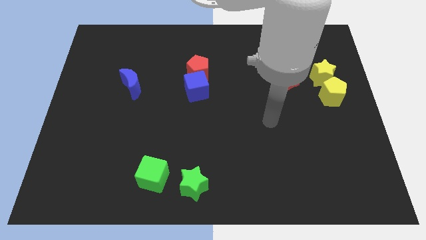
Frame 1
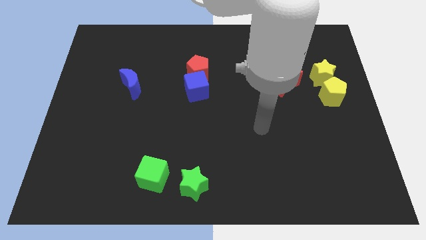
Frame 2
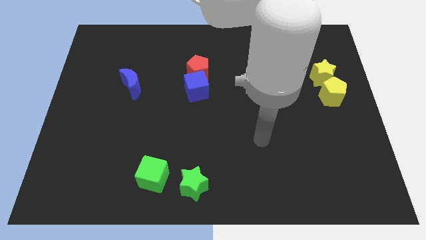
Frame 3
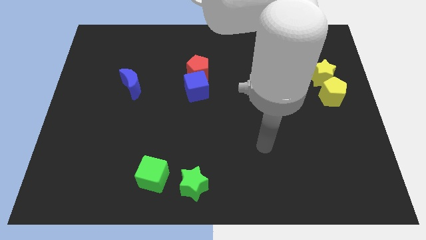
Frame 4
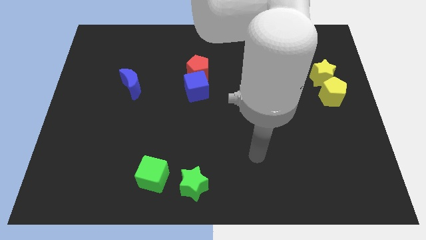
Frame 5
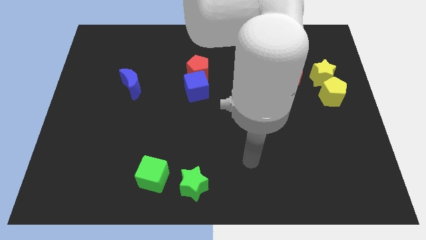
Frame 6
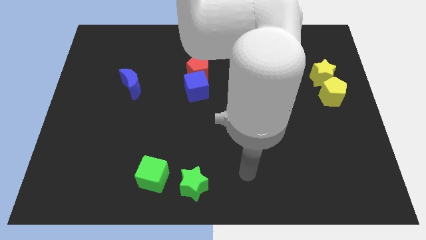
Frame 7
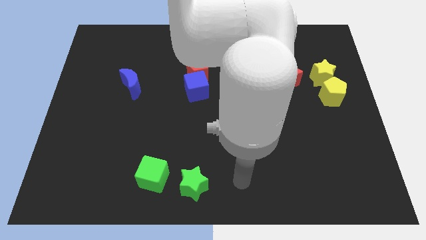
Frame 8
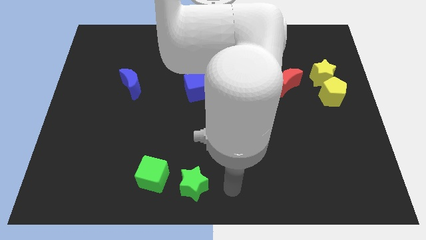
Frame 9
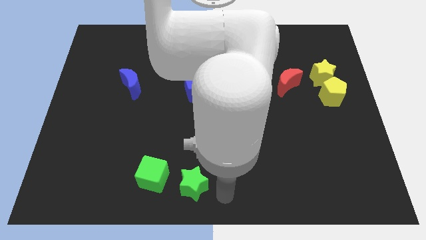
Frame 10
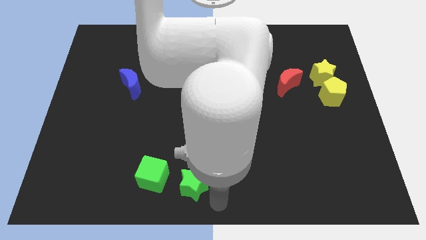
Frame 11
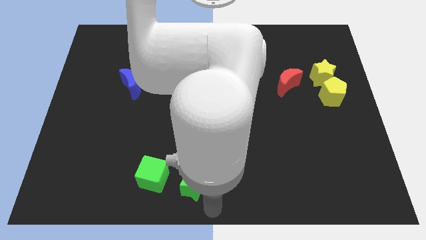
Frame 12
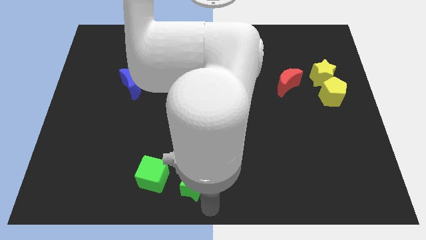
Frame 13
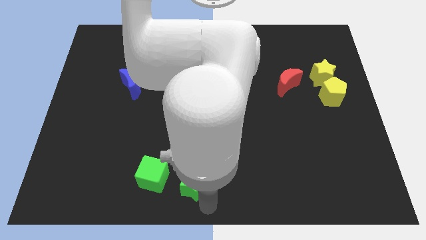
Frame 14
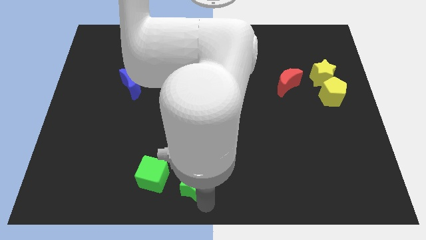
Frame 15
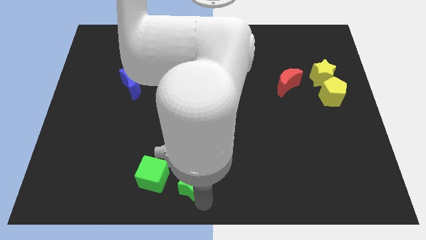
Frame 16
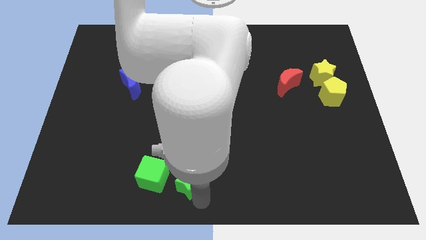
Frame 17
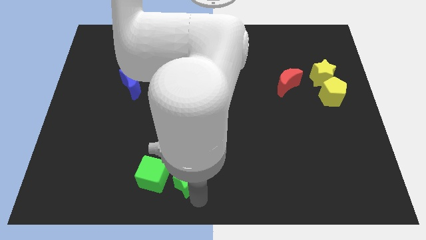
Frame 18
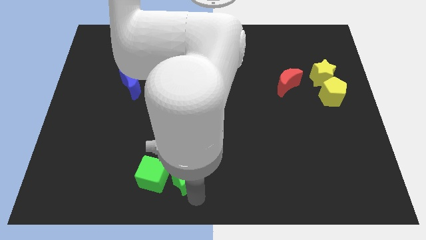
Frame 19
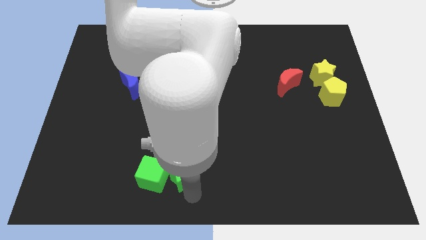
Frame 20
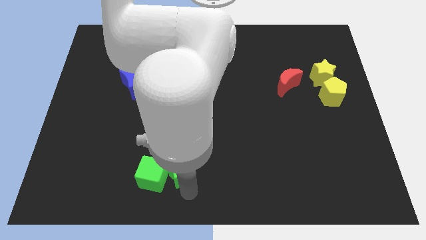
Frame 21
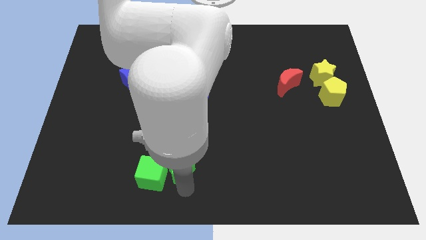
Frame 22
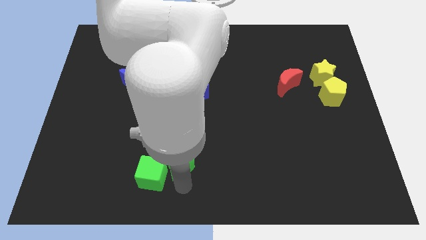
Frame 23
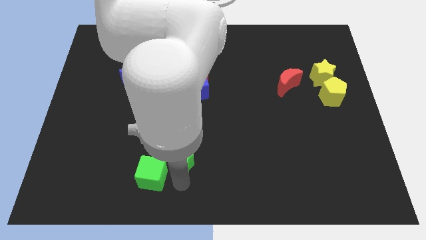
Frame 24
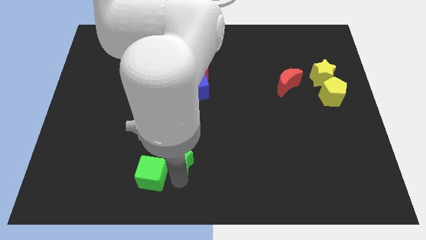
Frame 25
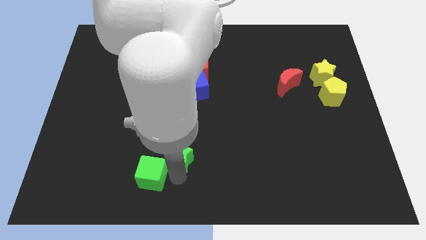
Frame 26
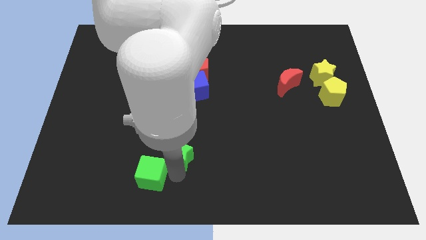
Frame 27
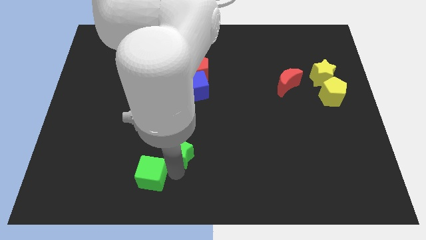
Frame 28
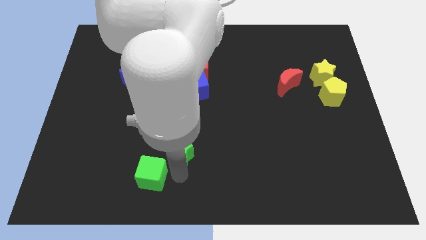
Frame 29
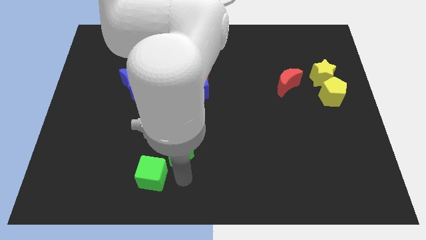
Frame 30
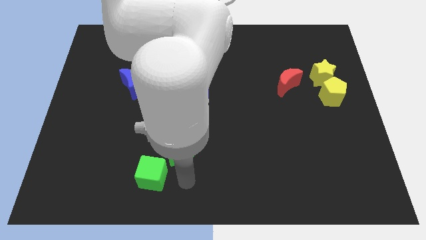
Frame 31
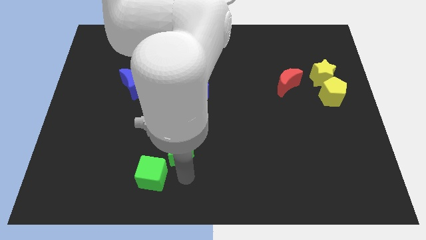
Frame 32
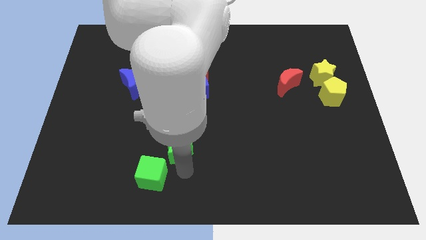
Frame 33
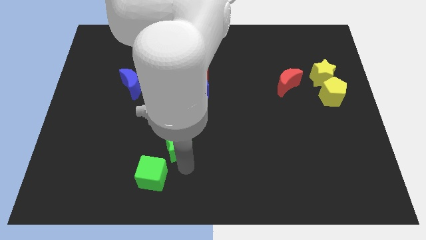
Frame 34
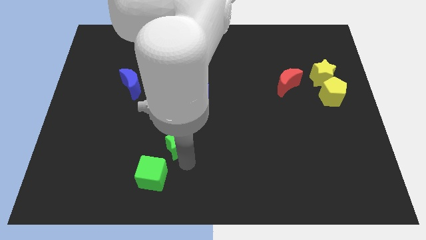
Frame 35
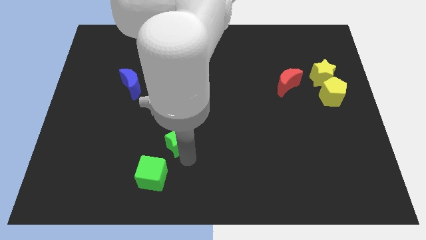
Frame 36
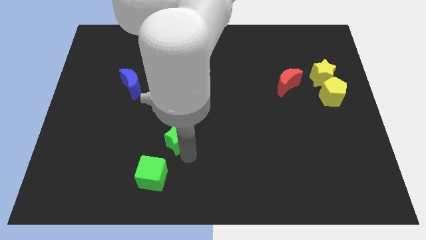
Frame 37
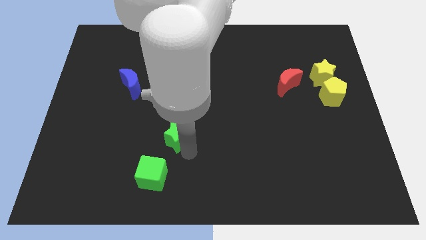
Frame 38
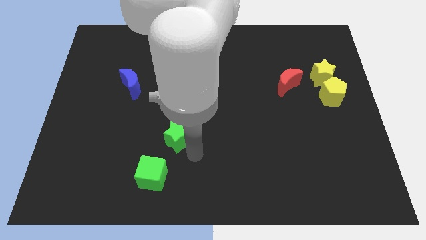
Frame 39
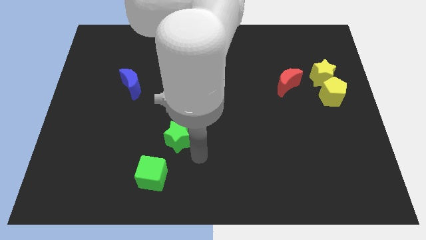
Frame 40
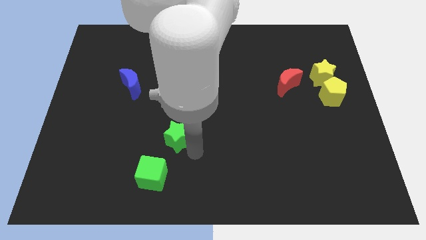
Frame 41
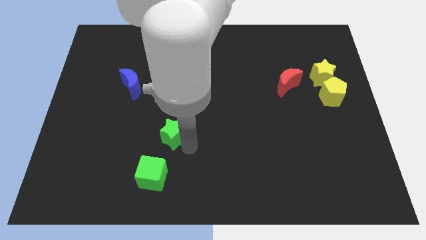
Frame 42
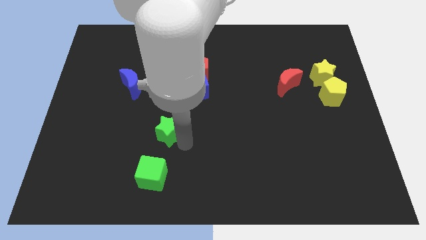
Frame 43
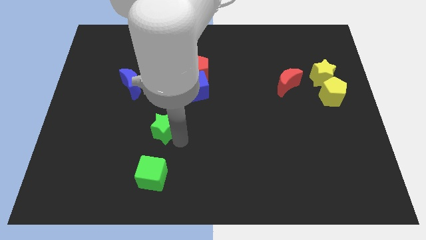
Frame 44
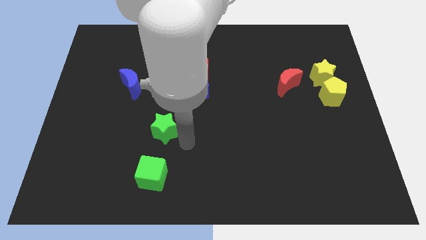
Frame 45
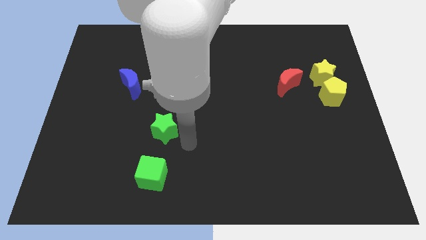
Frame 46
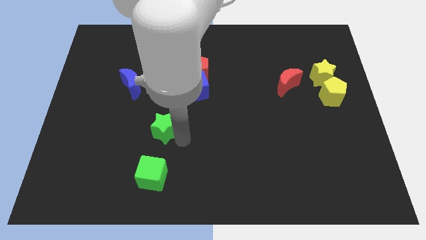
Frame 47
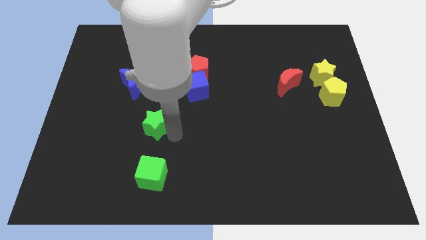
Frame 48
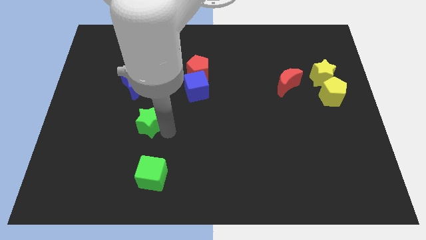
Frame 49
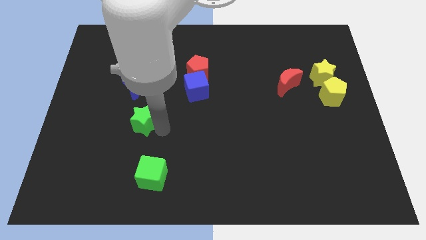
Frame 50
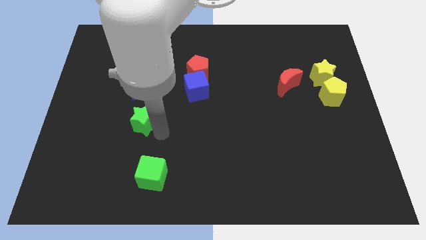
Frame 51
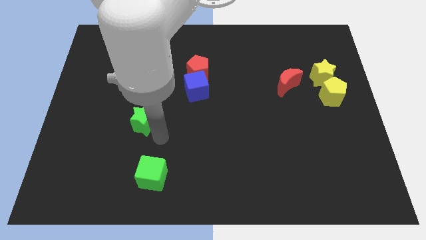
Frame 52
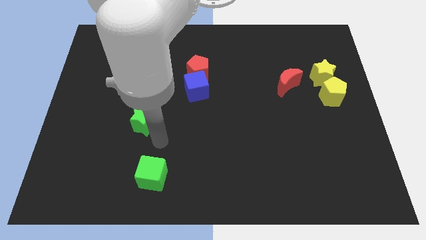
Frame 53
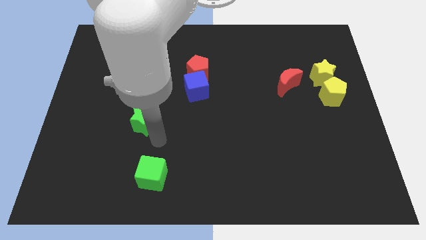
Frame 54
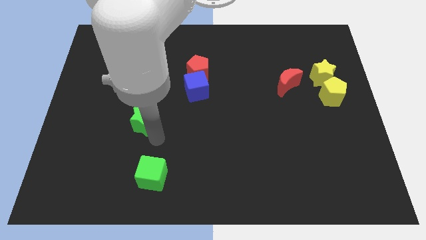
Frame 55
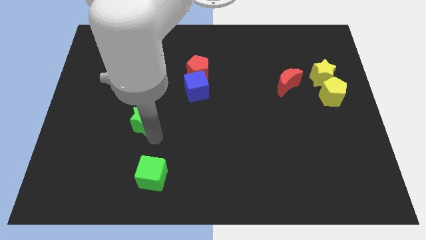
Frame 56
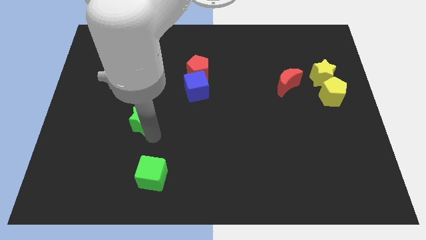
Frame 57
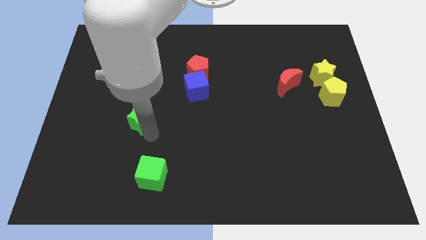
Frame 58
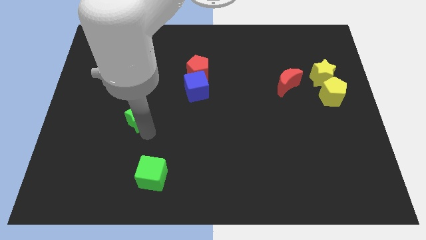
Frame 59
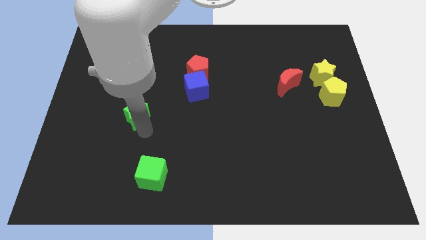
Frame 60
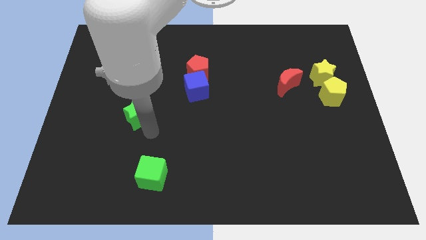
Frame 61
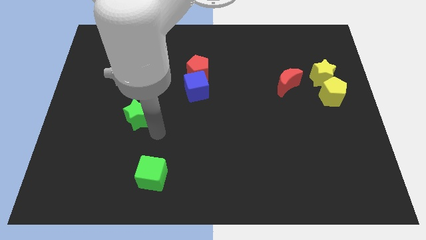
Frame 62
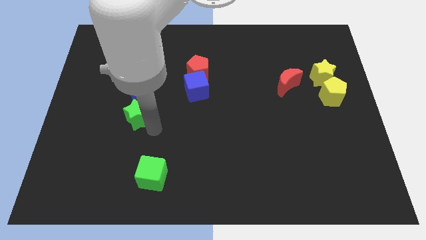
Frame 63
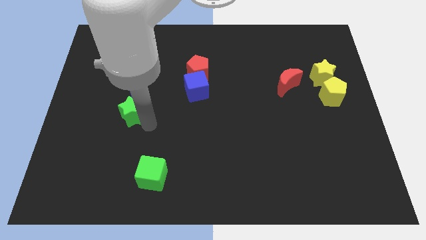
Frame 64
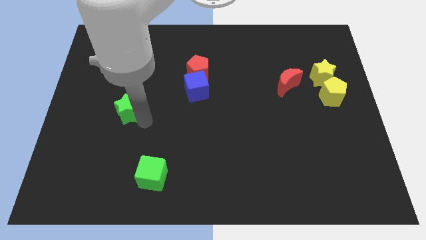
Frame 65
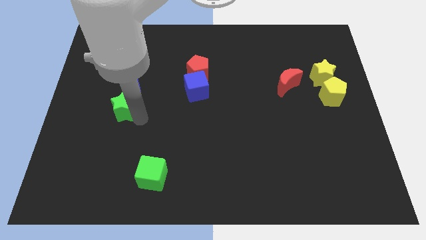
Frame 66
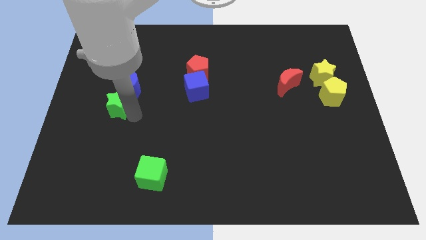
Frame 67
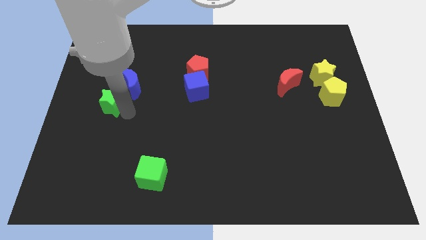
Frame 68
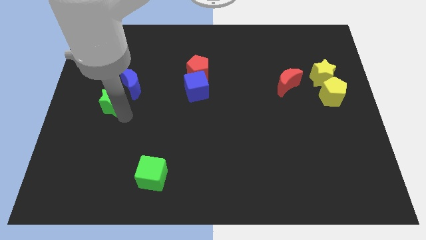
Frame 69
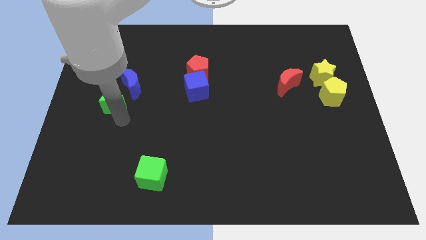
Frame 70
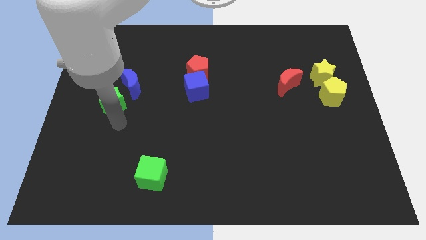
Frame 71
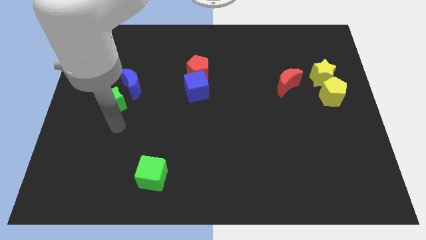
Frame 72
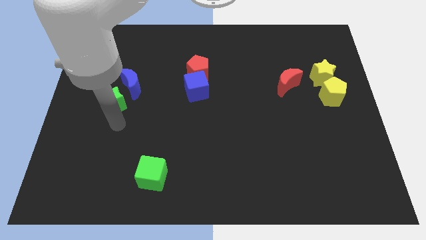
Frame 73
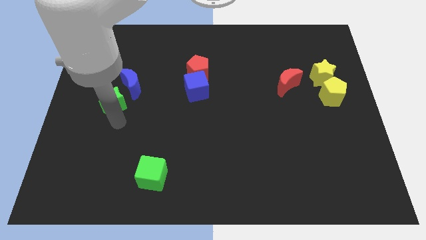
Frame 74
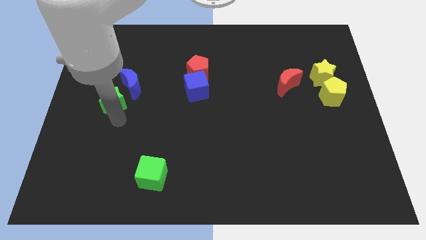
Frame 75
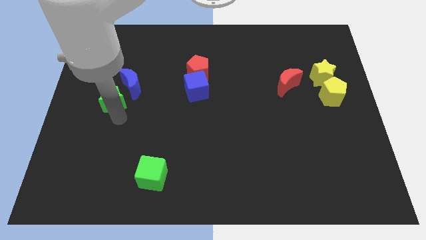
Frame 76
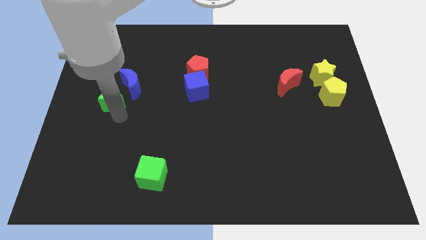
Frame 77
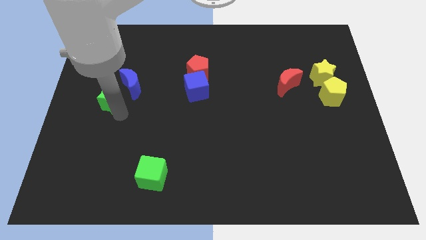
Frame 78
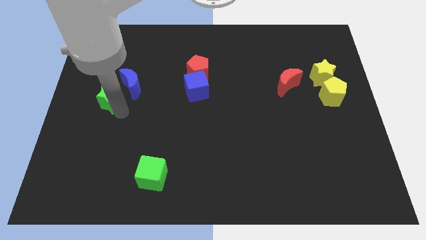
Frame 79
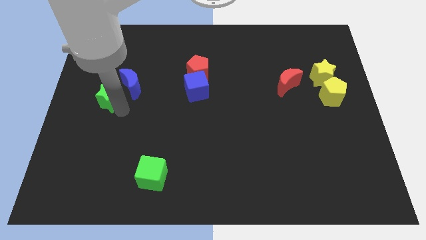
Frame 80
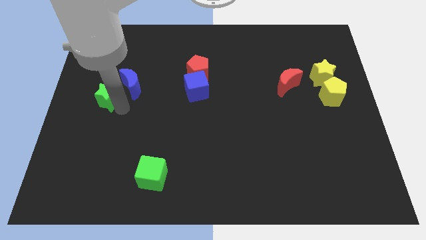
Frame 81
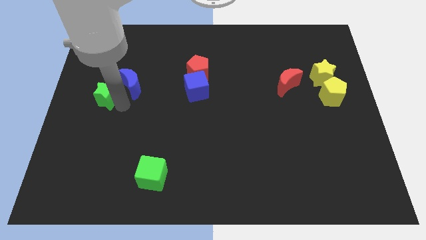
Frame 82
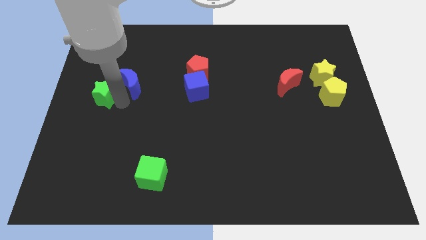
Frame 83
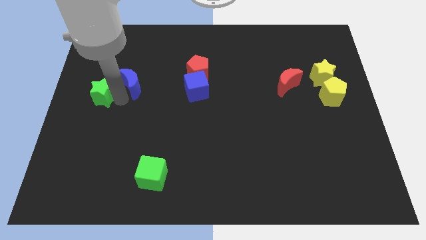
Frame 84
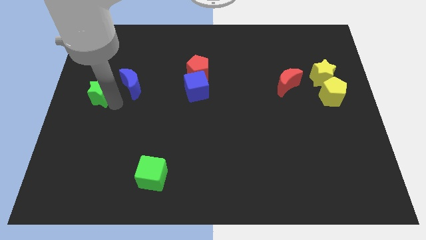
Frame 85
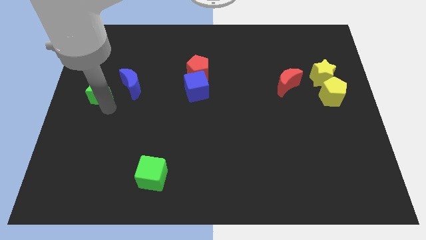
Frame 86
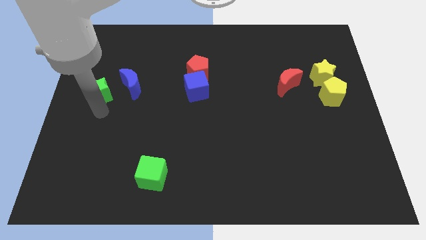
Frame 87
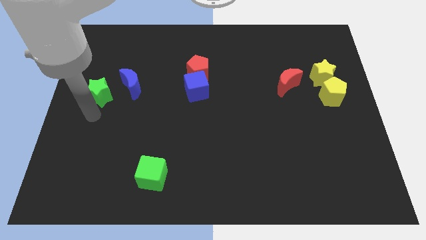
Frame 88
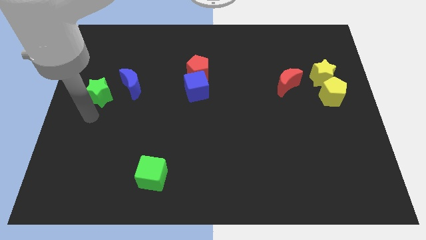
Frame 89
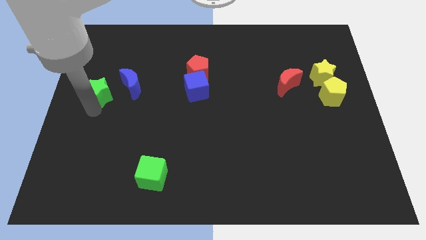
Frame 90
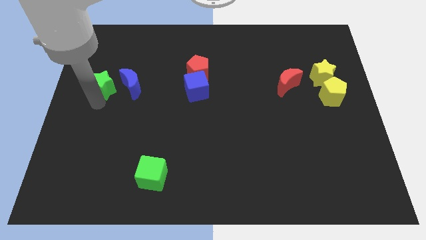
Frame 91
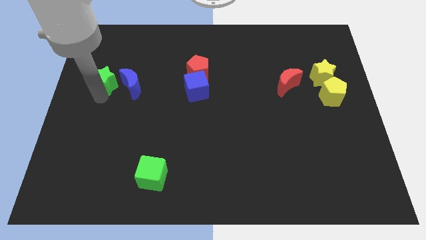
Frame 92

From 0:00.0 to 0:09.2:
slide the green star to the top left side of the blue moon
